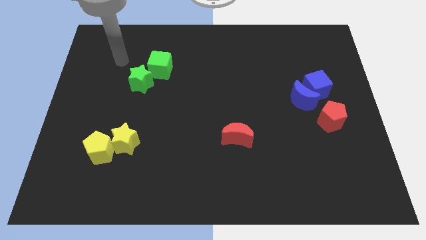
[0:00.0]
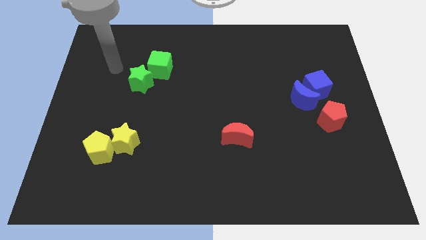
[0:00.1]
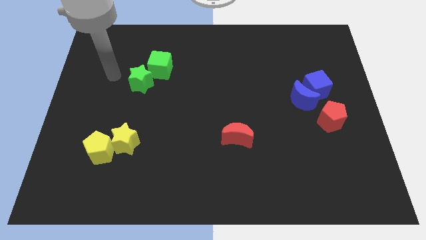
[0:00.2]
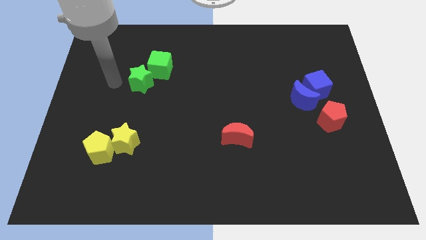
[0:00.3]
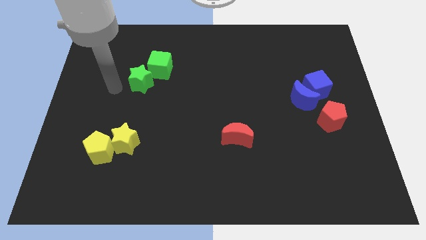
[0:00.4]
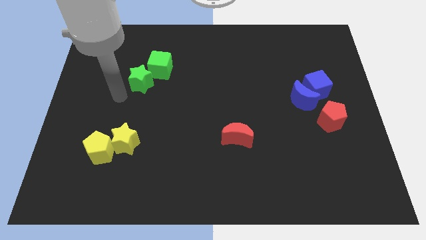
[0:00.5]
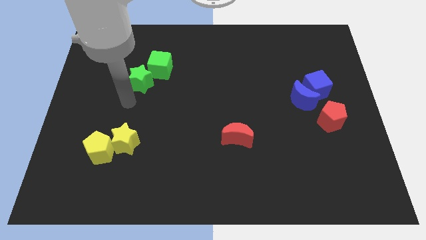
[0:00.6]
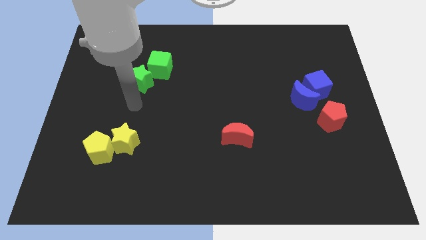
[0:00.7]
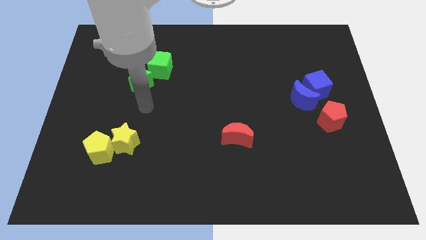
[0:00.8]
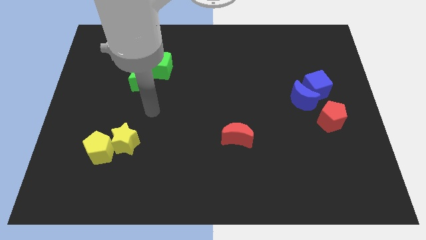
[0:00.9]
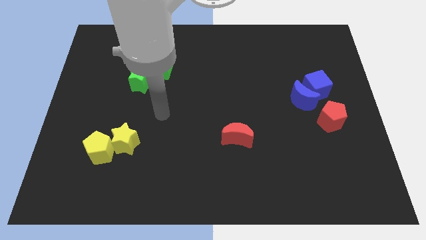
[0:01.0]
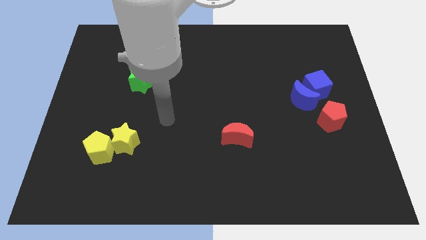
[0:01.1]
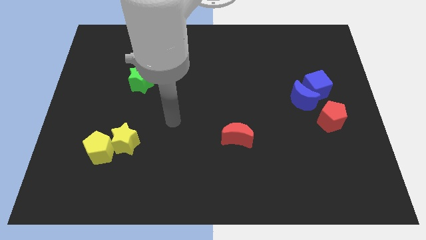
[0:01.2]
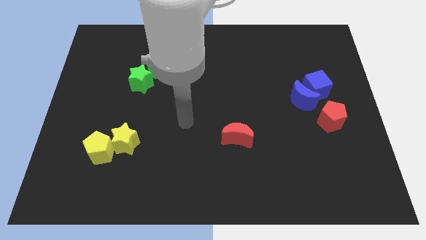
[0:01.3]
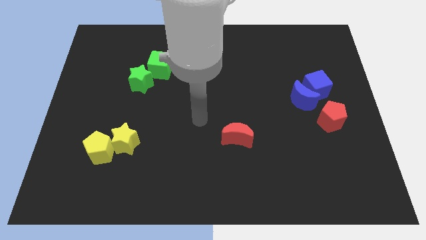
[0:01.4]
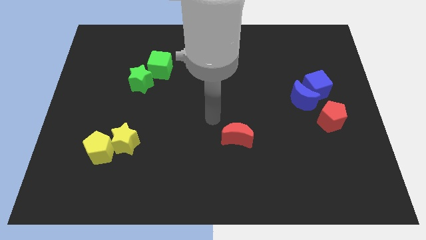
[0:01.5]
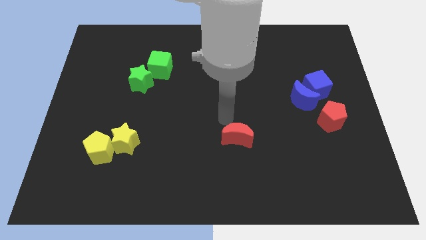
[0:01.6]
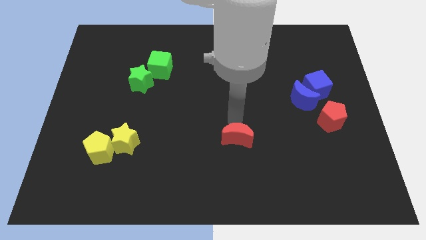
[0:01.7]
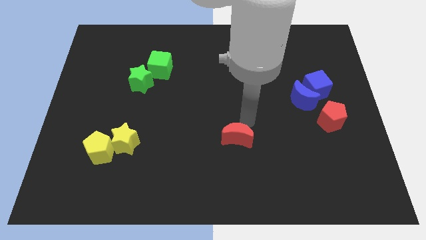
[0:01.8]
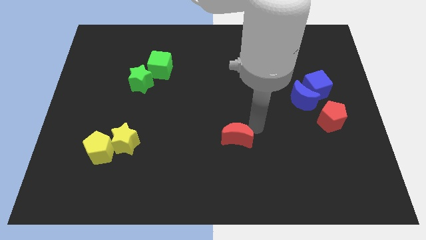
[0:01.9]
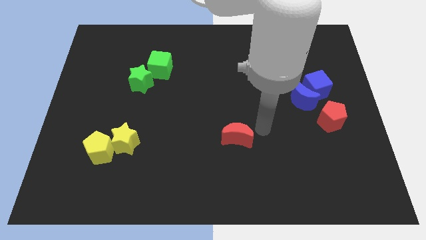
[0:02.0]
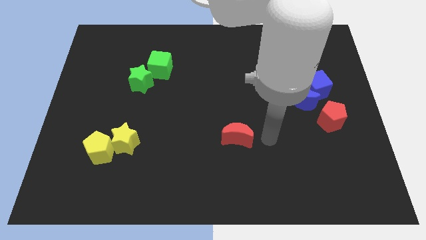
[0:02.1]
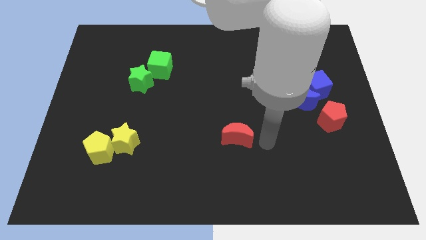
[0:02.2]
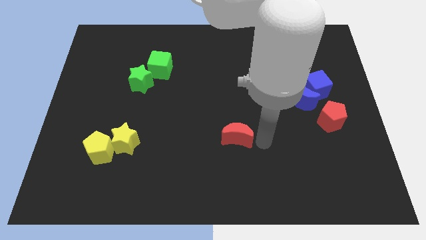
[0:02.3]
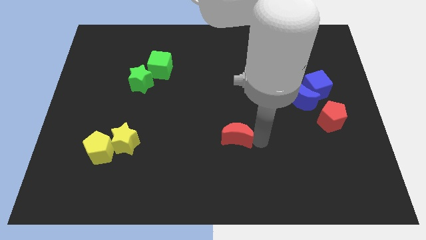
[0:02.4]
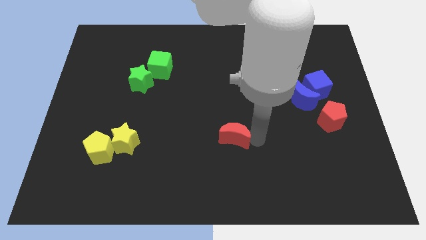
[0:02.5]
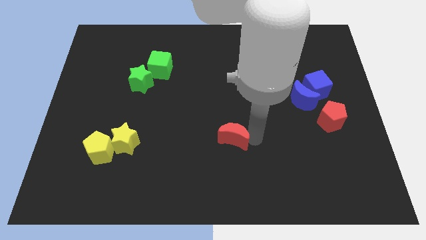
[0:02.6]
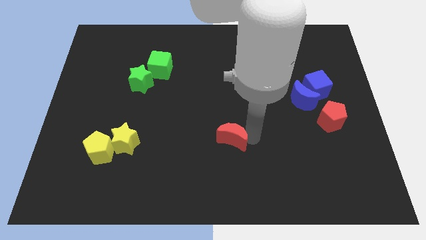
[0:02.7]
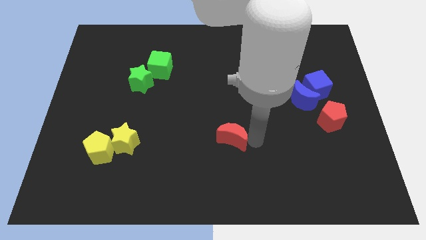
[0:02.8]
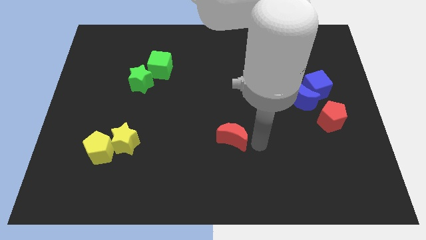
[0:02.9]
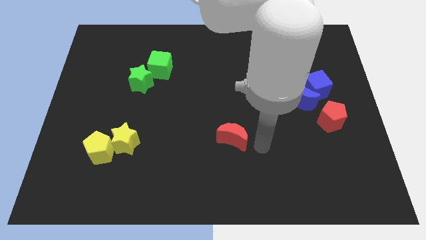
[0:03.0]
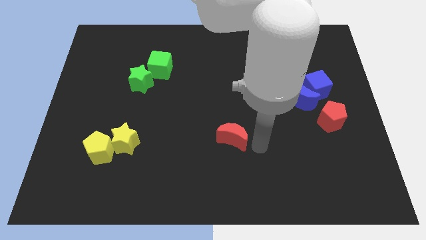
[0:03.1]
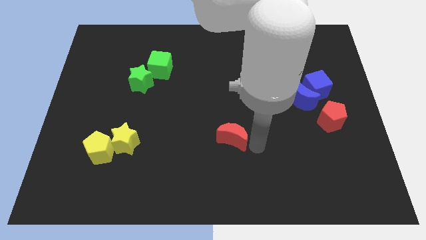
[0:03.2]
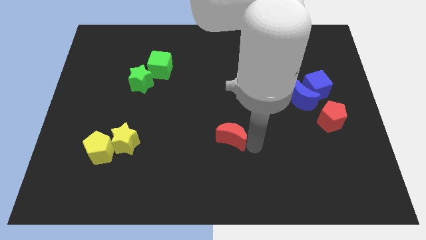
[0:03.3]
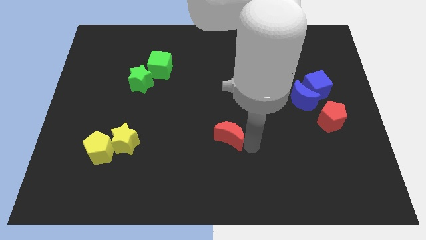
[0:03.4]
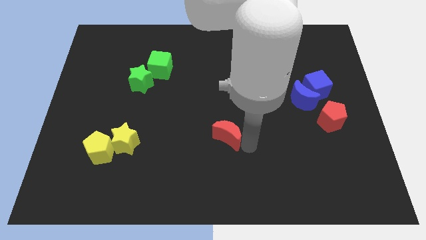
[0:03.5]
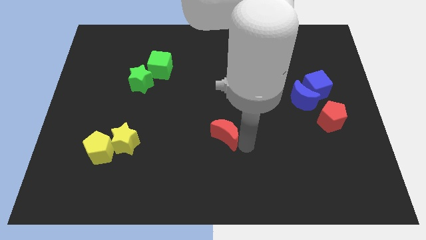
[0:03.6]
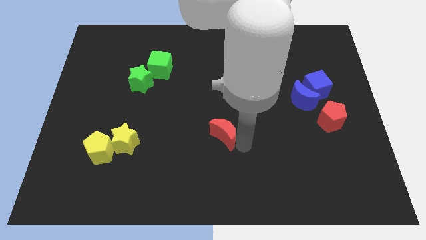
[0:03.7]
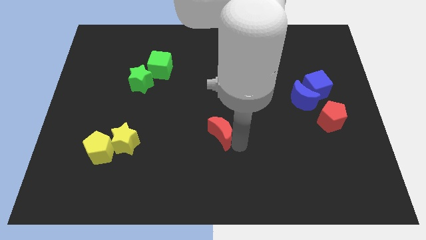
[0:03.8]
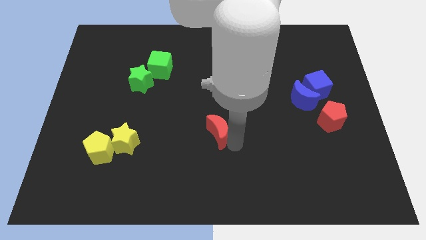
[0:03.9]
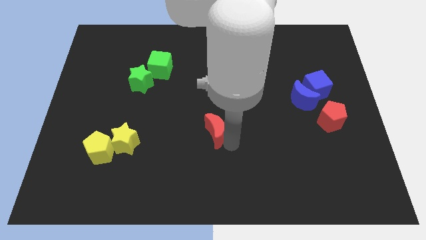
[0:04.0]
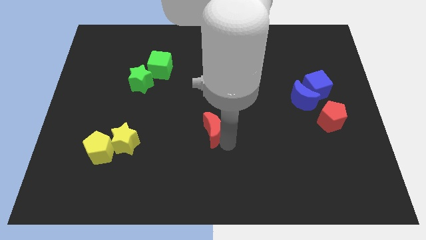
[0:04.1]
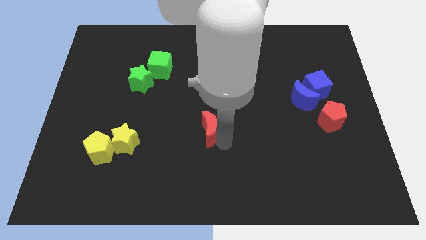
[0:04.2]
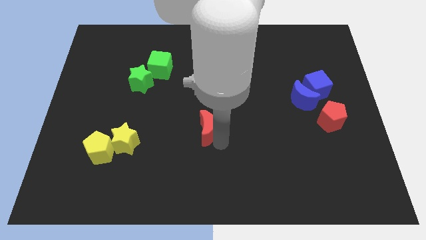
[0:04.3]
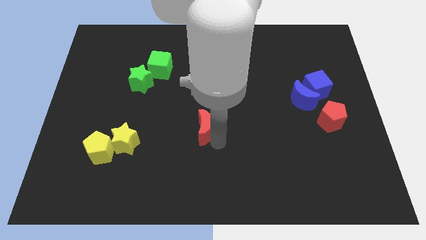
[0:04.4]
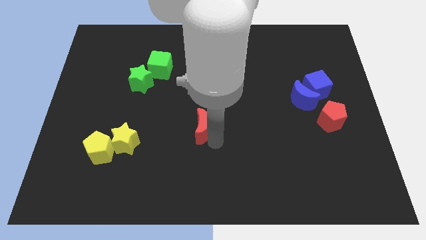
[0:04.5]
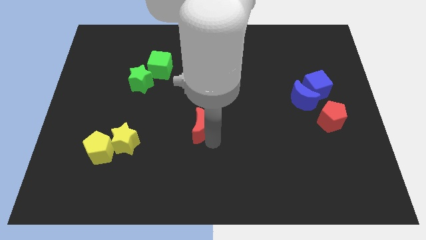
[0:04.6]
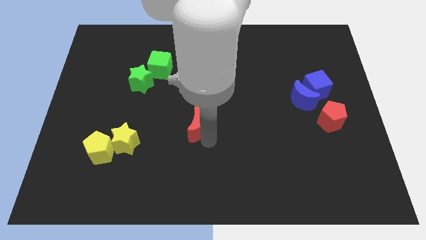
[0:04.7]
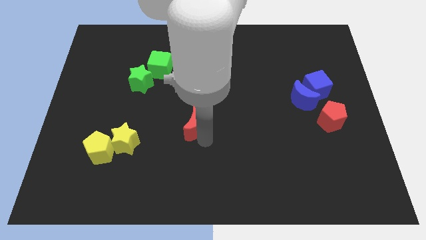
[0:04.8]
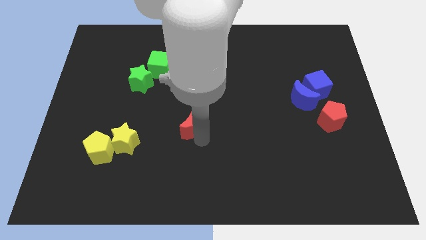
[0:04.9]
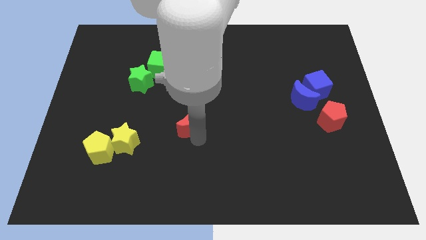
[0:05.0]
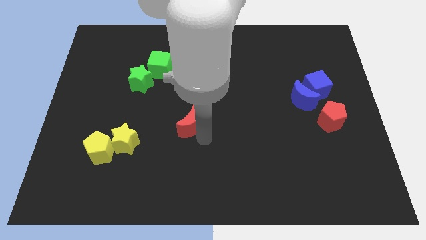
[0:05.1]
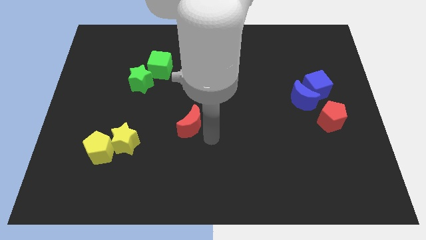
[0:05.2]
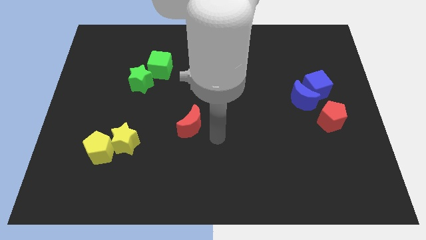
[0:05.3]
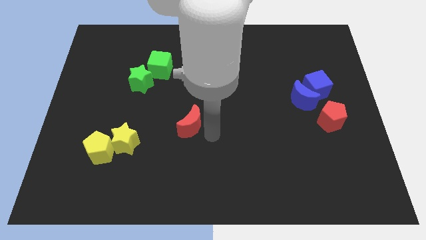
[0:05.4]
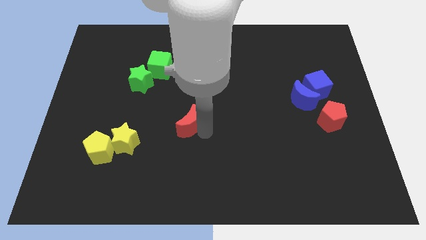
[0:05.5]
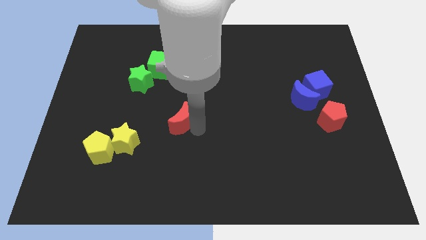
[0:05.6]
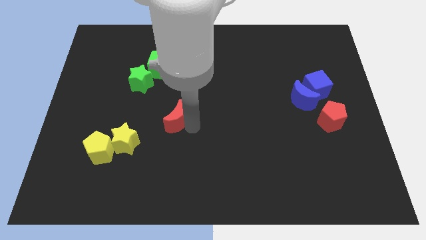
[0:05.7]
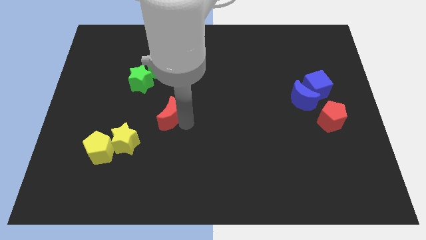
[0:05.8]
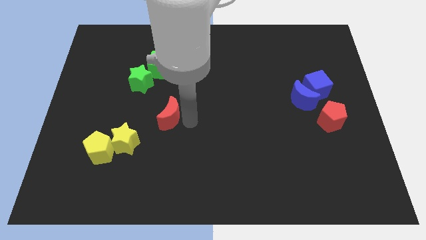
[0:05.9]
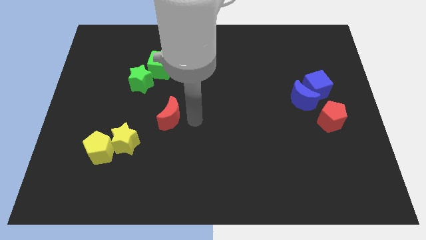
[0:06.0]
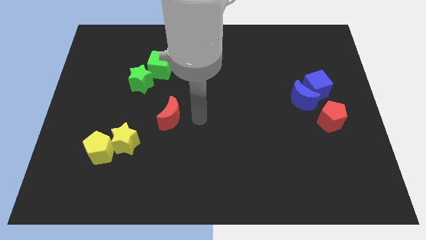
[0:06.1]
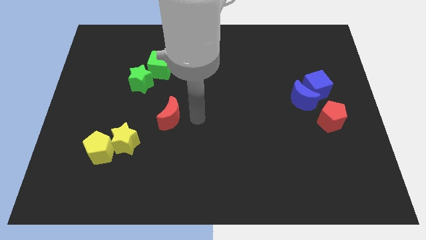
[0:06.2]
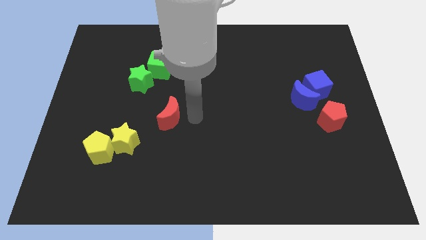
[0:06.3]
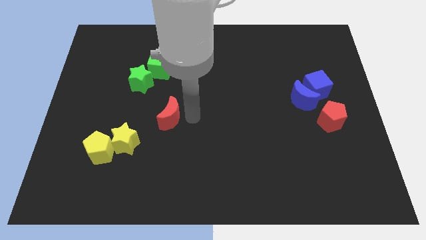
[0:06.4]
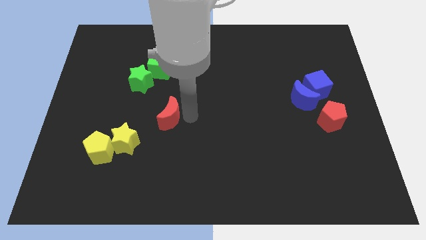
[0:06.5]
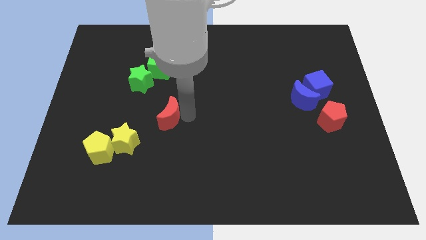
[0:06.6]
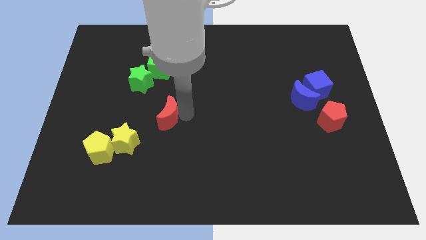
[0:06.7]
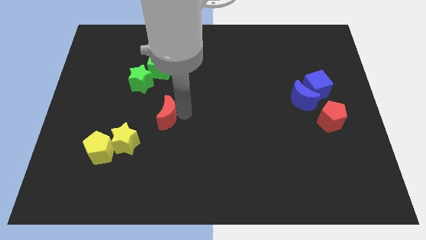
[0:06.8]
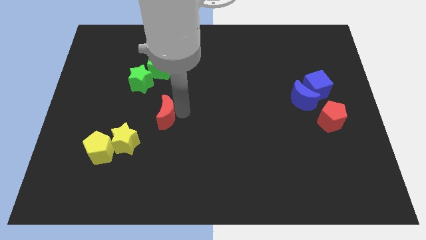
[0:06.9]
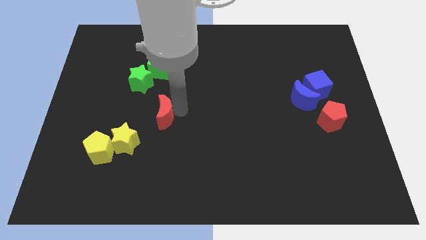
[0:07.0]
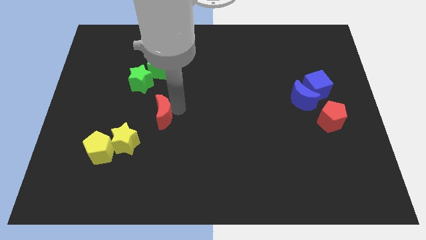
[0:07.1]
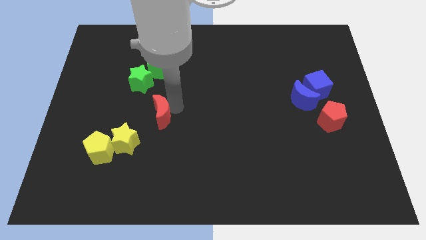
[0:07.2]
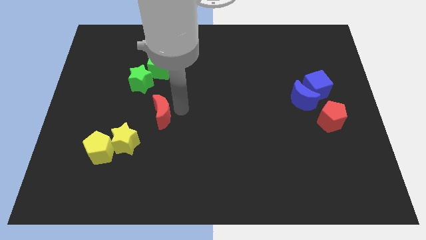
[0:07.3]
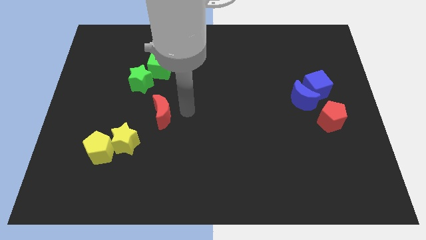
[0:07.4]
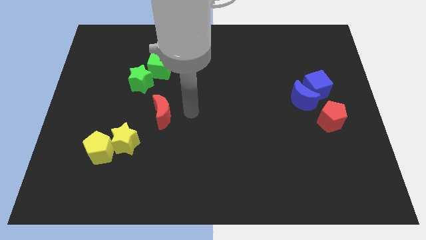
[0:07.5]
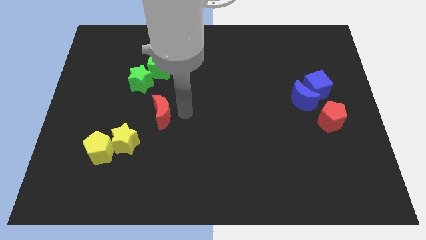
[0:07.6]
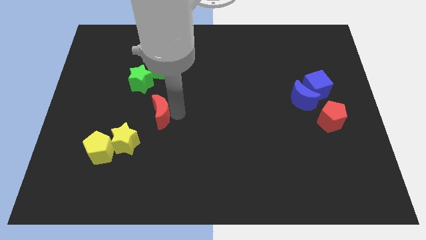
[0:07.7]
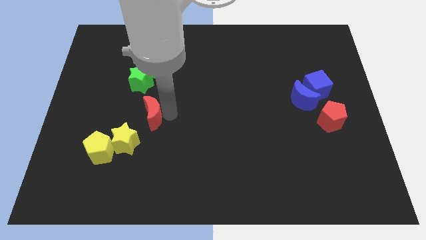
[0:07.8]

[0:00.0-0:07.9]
push the red moon below the green star
